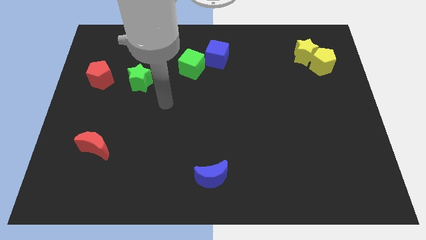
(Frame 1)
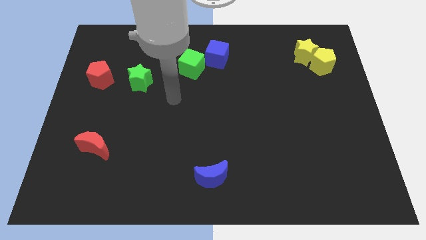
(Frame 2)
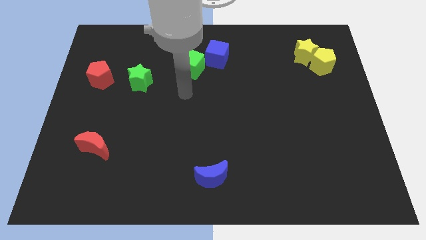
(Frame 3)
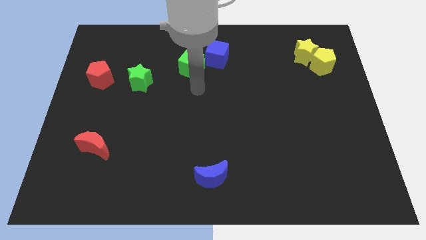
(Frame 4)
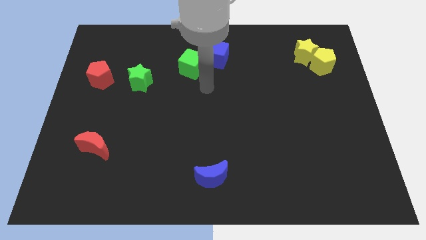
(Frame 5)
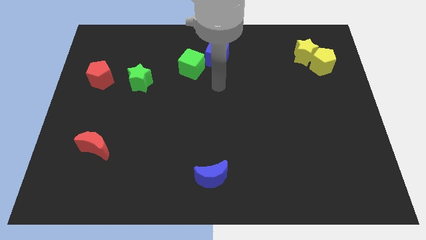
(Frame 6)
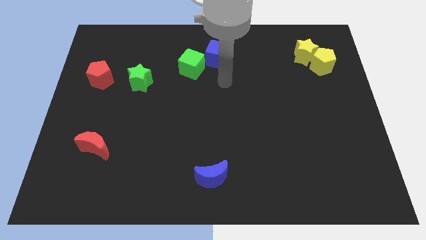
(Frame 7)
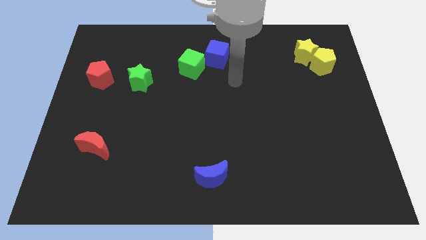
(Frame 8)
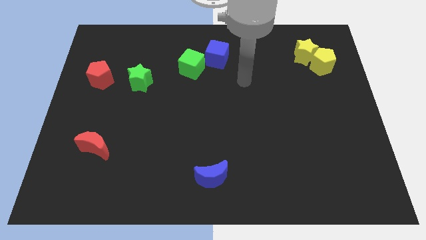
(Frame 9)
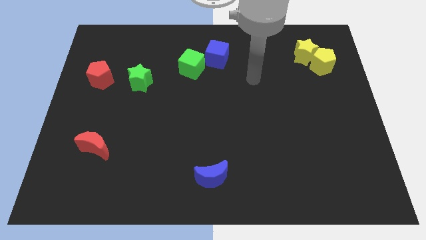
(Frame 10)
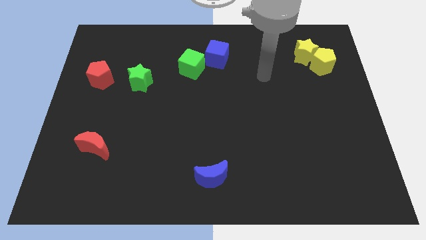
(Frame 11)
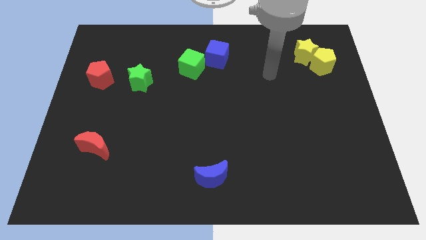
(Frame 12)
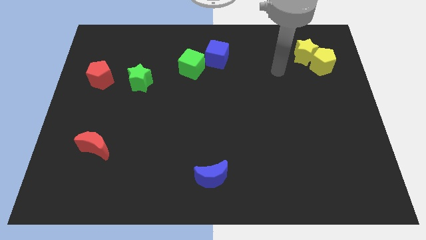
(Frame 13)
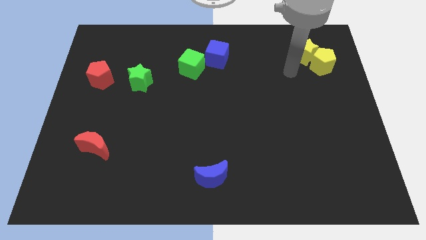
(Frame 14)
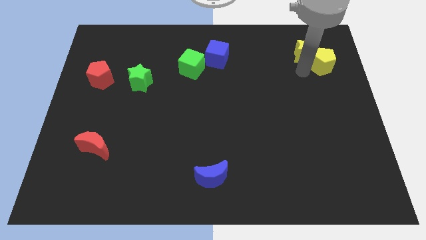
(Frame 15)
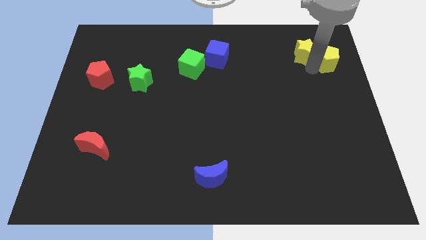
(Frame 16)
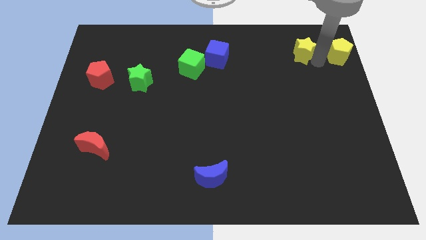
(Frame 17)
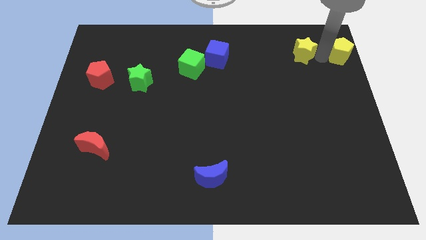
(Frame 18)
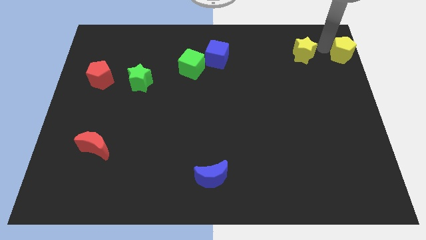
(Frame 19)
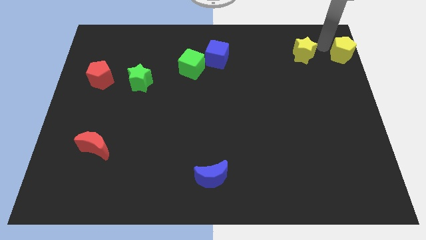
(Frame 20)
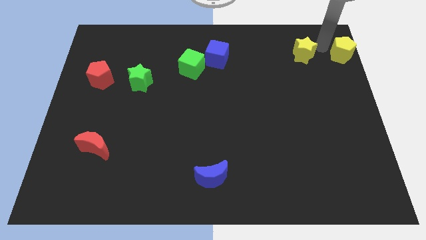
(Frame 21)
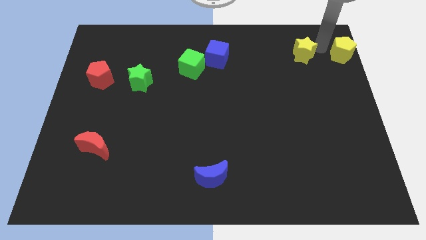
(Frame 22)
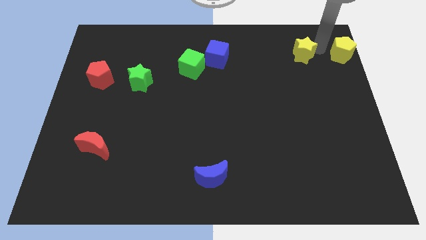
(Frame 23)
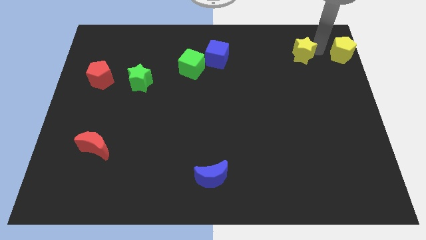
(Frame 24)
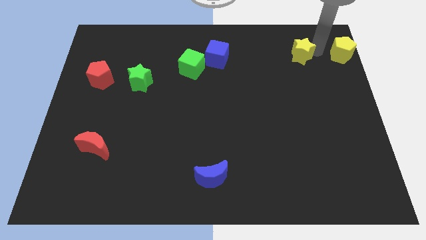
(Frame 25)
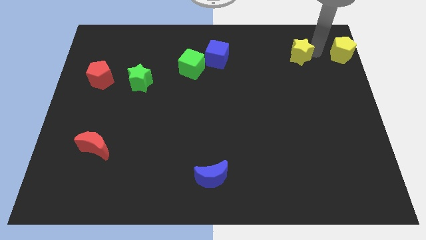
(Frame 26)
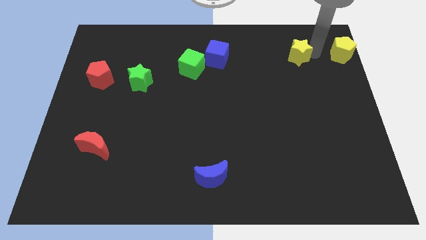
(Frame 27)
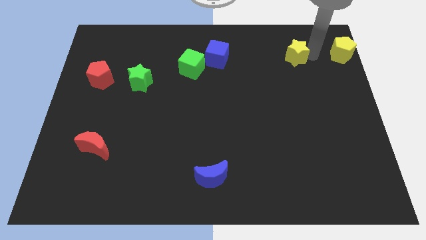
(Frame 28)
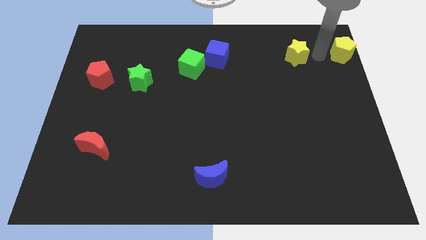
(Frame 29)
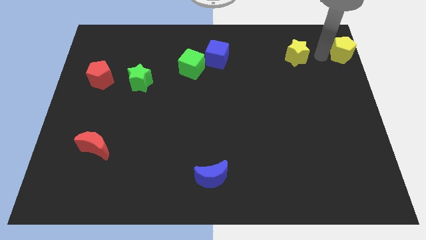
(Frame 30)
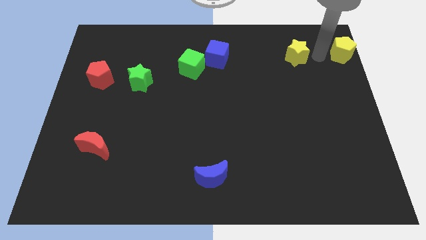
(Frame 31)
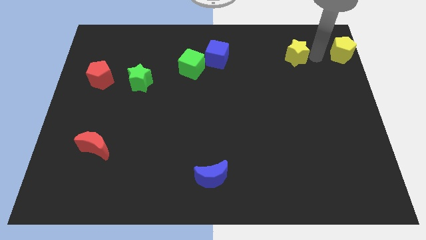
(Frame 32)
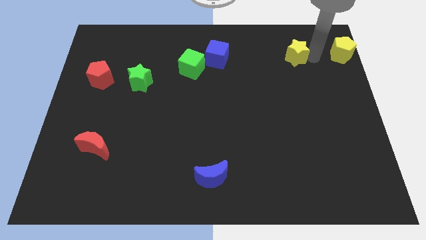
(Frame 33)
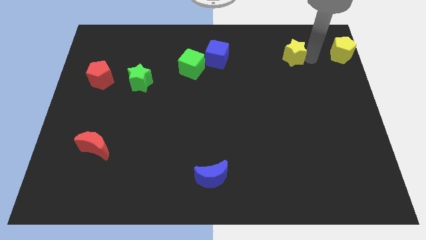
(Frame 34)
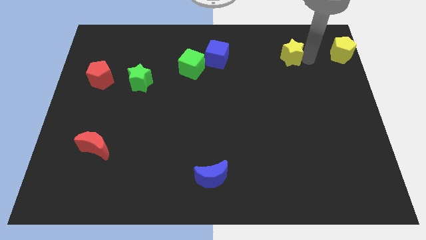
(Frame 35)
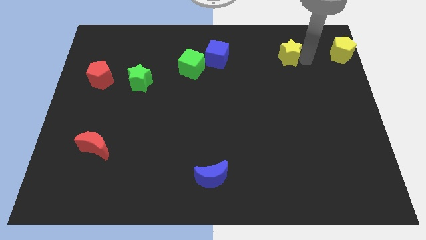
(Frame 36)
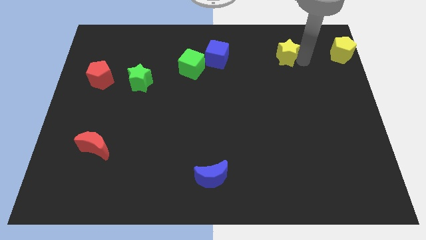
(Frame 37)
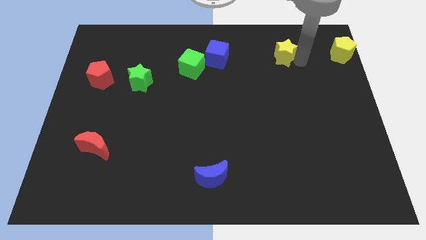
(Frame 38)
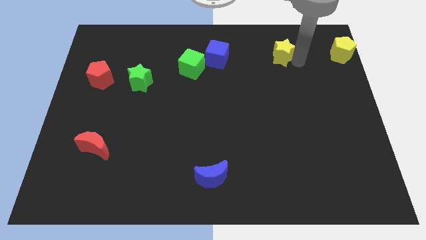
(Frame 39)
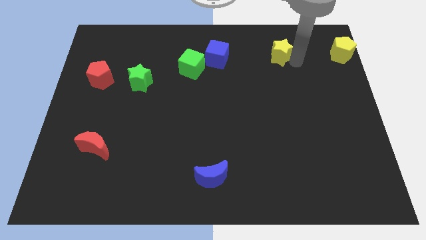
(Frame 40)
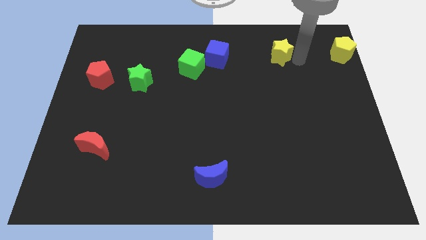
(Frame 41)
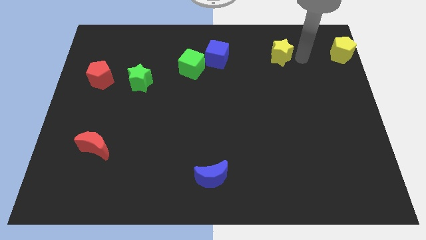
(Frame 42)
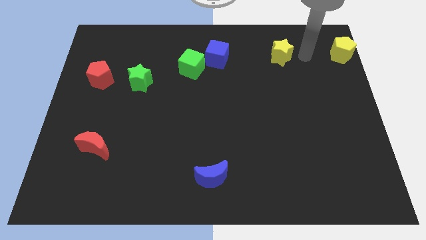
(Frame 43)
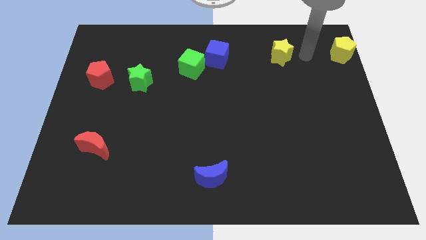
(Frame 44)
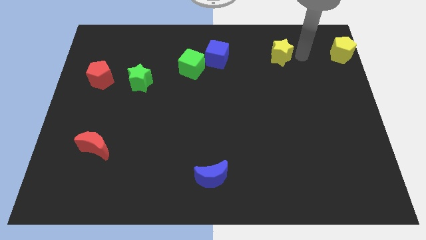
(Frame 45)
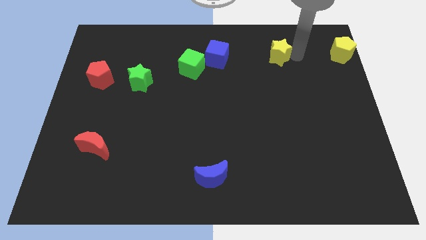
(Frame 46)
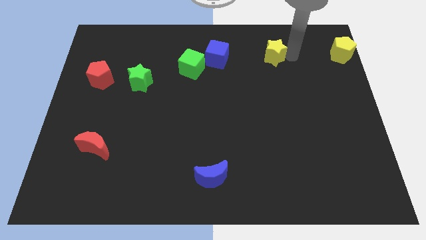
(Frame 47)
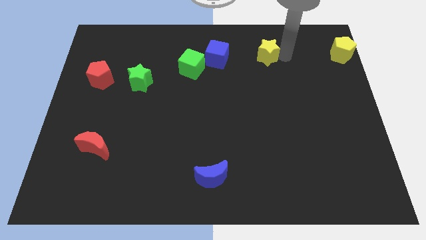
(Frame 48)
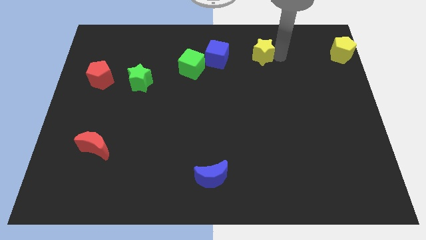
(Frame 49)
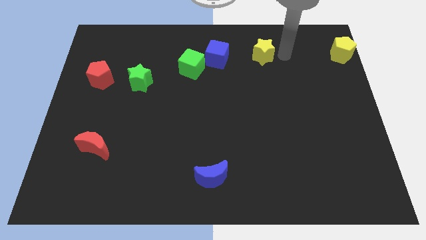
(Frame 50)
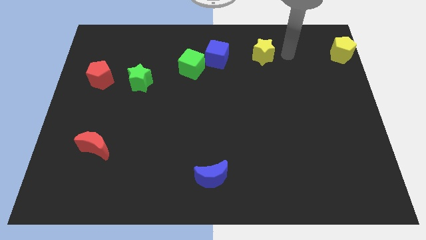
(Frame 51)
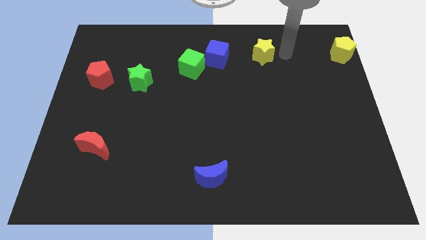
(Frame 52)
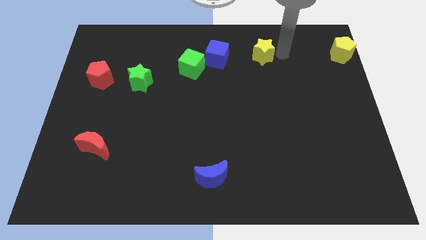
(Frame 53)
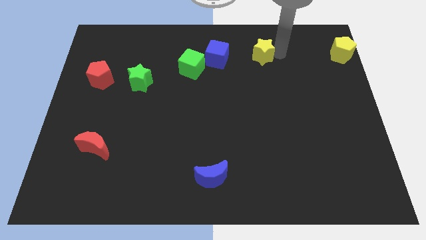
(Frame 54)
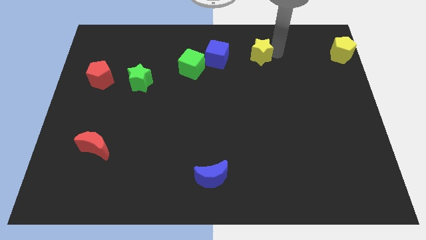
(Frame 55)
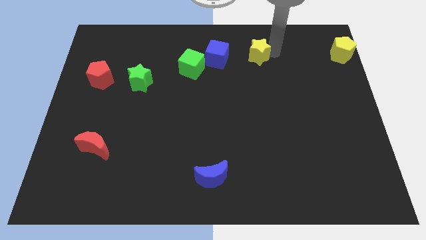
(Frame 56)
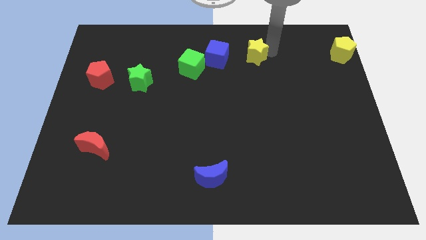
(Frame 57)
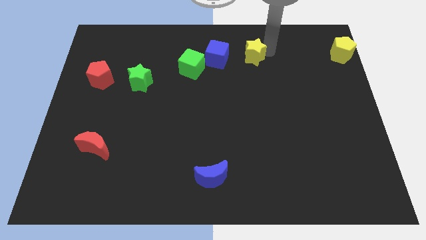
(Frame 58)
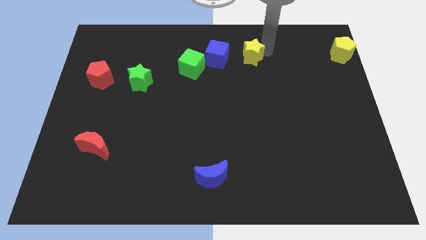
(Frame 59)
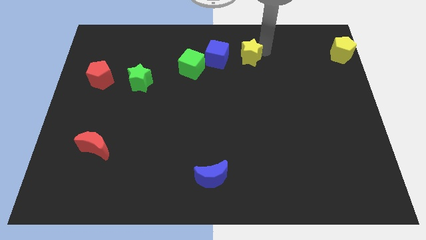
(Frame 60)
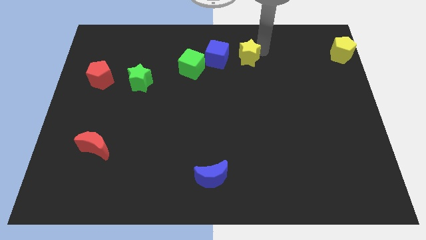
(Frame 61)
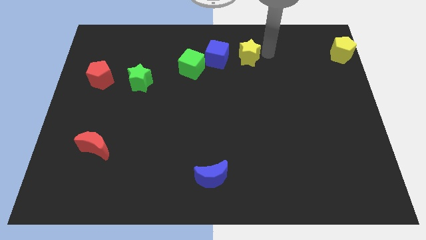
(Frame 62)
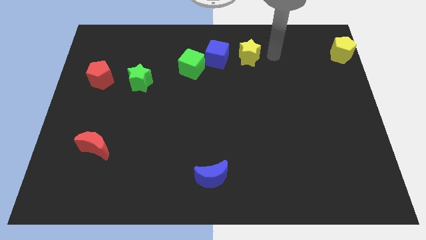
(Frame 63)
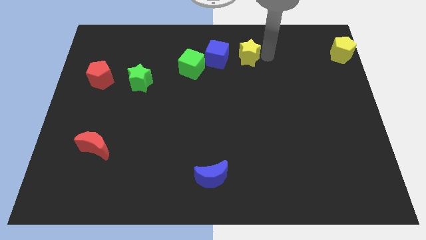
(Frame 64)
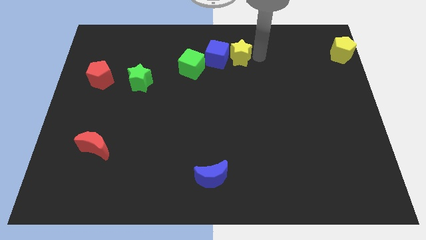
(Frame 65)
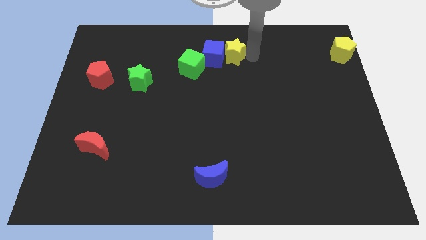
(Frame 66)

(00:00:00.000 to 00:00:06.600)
put the yellow star towards the blue cube
